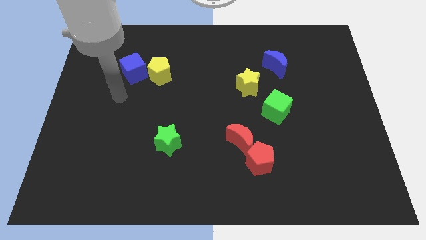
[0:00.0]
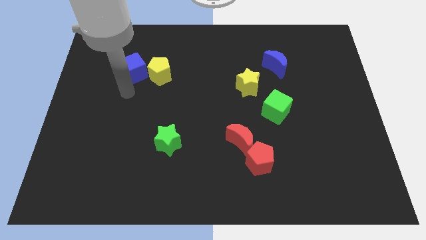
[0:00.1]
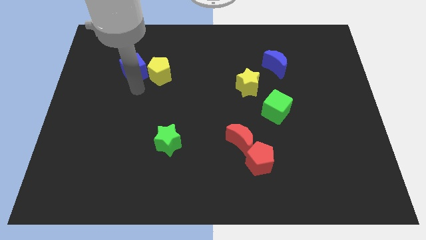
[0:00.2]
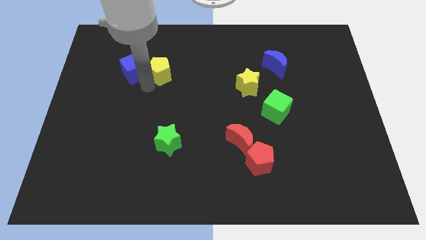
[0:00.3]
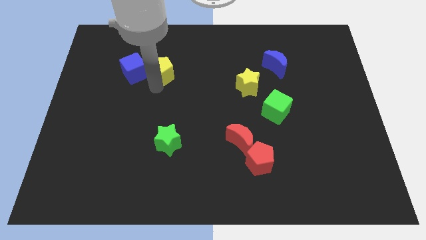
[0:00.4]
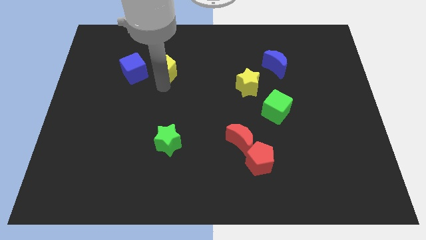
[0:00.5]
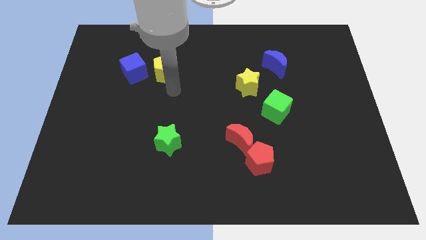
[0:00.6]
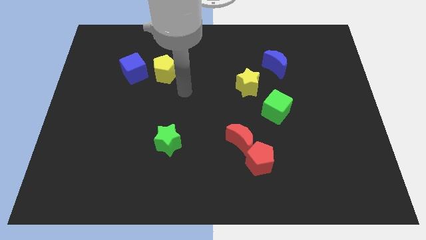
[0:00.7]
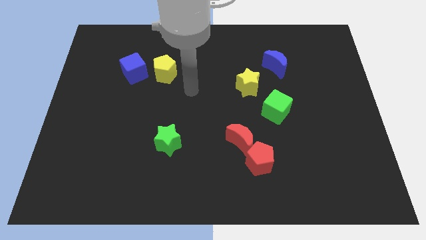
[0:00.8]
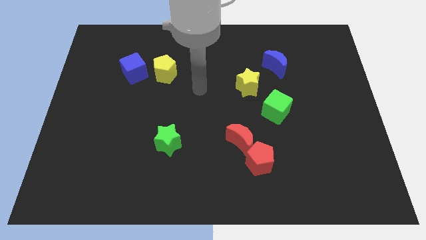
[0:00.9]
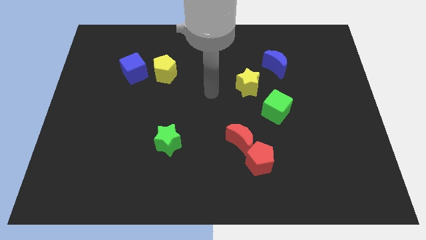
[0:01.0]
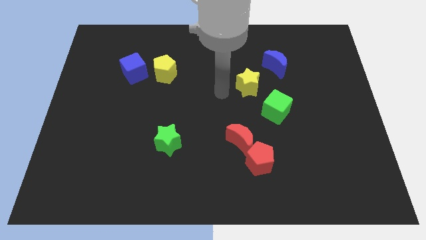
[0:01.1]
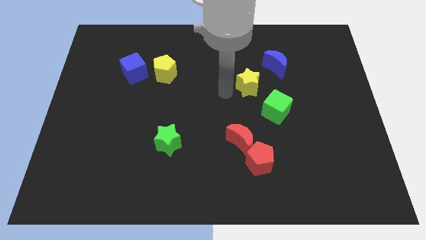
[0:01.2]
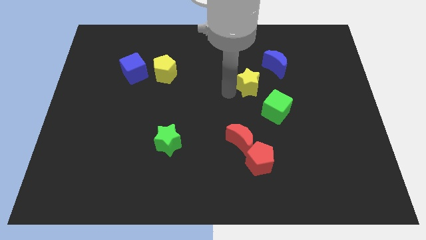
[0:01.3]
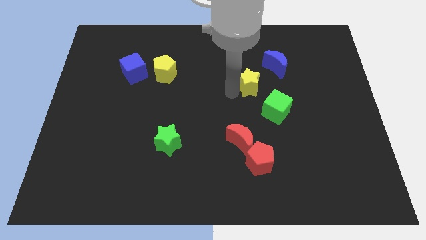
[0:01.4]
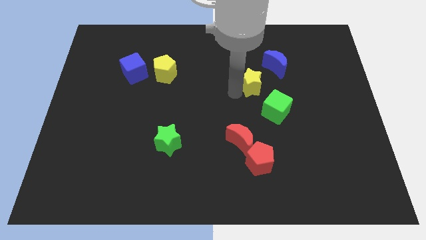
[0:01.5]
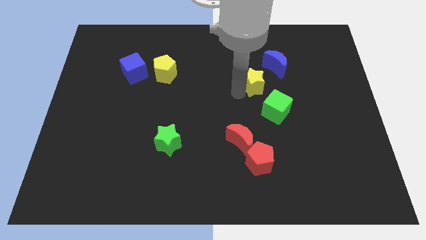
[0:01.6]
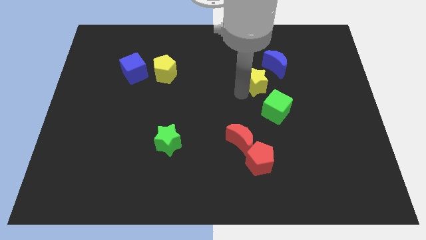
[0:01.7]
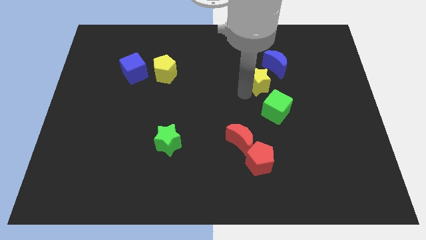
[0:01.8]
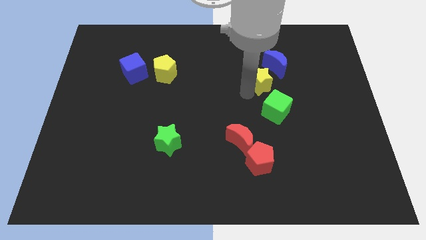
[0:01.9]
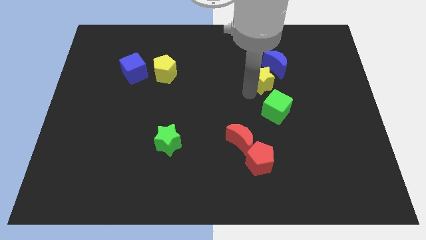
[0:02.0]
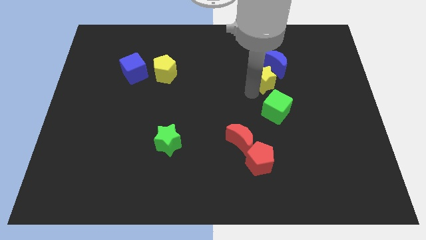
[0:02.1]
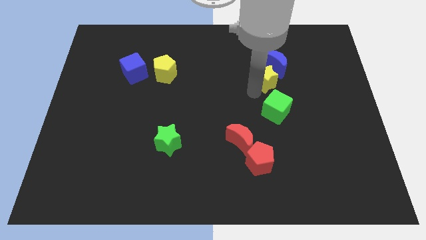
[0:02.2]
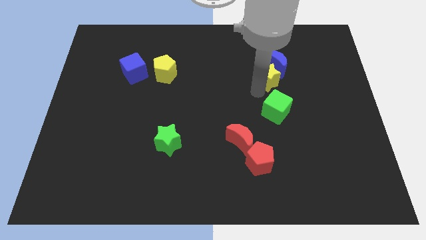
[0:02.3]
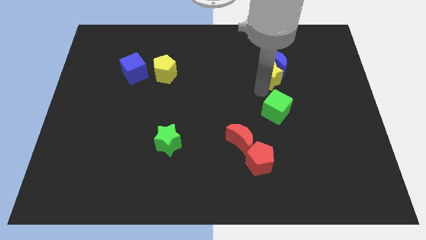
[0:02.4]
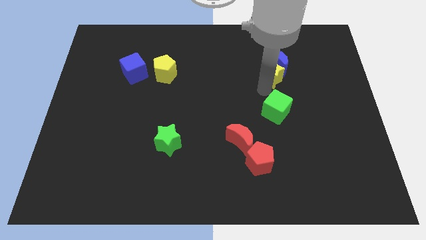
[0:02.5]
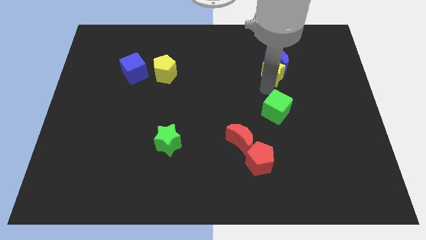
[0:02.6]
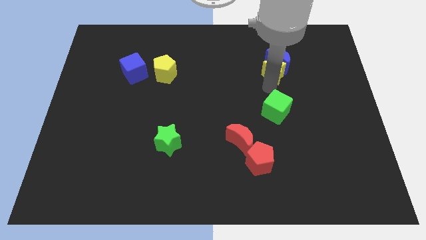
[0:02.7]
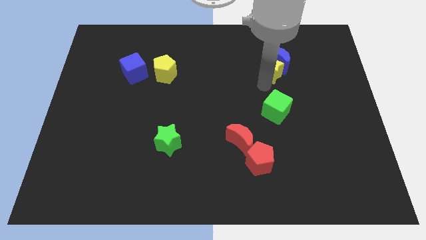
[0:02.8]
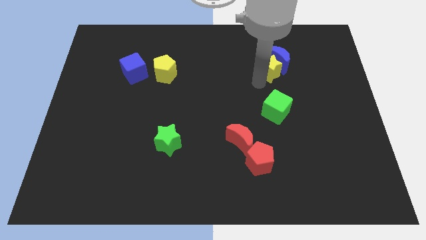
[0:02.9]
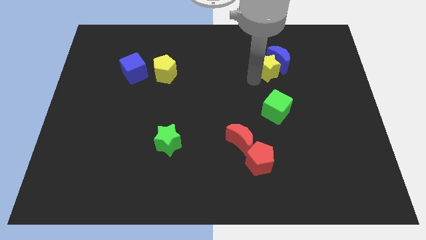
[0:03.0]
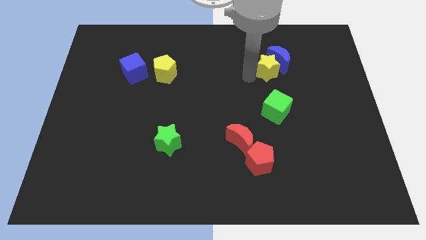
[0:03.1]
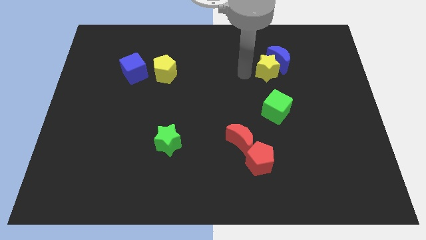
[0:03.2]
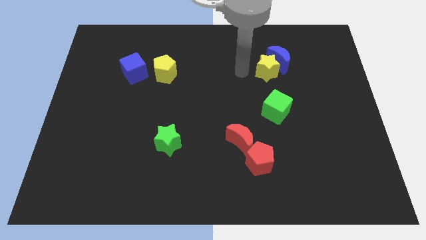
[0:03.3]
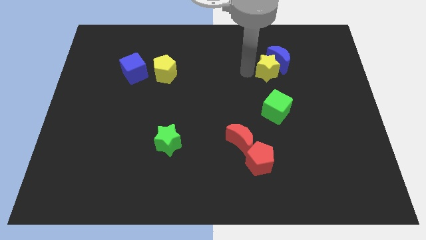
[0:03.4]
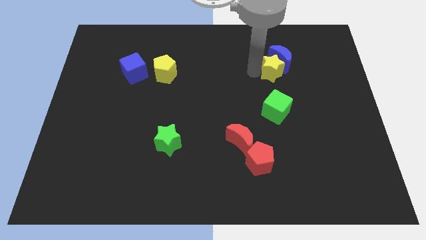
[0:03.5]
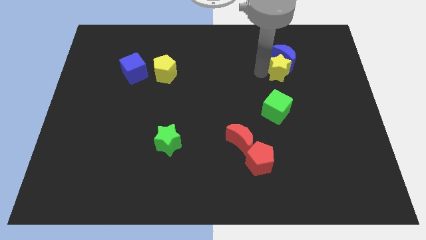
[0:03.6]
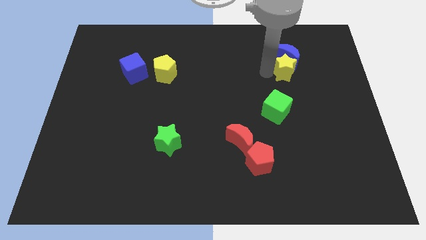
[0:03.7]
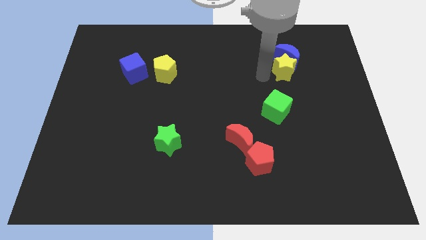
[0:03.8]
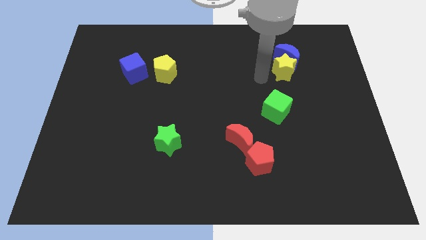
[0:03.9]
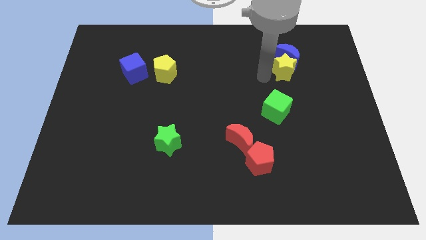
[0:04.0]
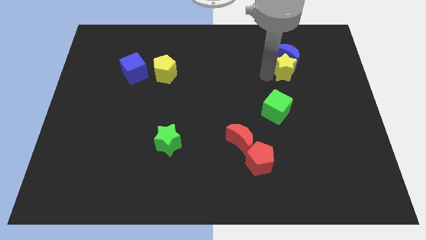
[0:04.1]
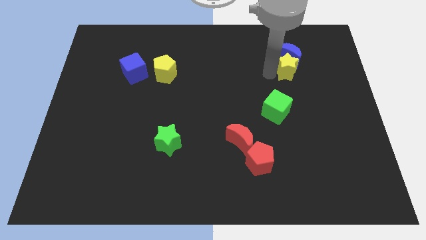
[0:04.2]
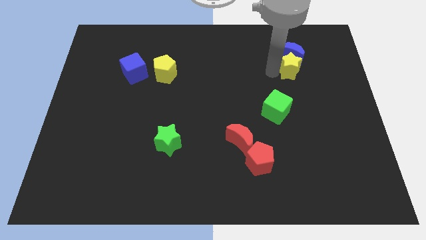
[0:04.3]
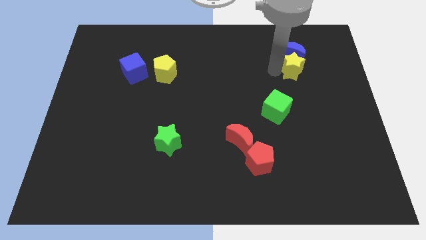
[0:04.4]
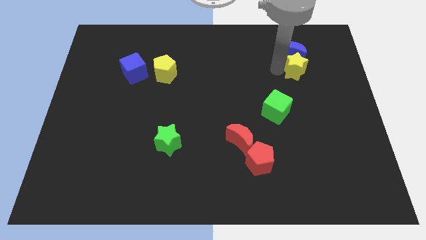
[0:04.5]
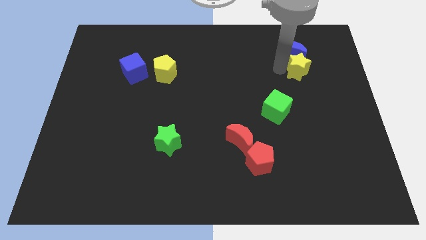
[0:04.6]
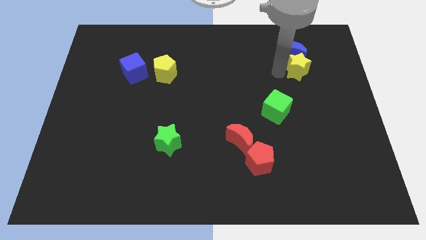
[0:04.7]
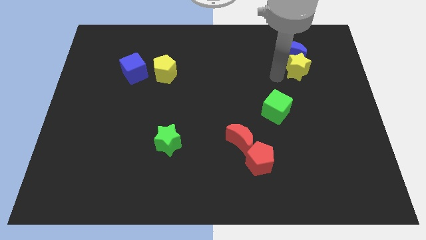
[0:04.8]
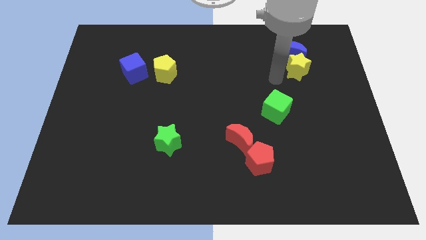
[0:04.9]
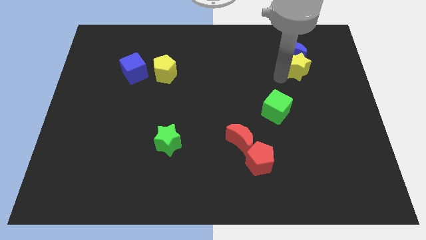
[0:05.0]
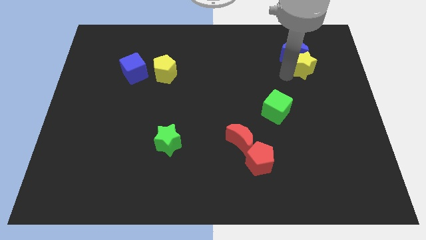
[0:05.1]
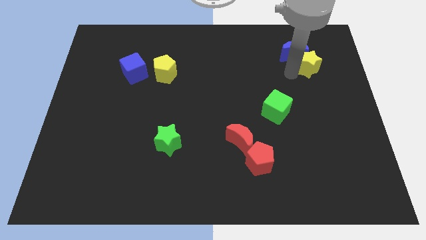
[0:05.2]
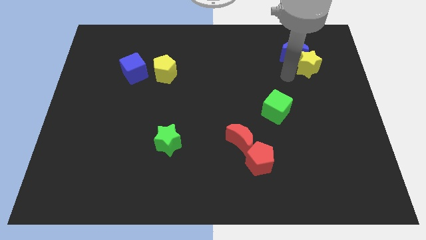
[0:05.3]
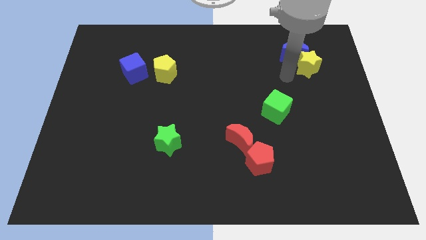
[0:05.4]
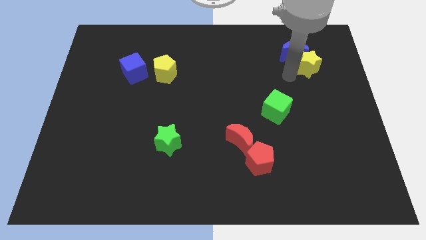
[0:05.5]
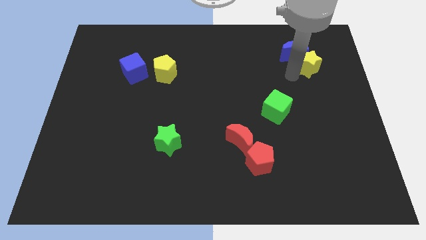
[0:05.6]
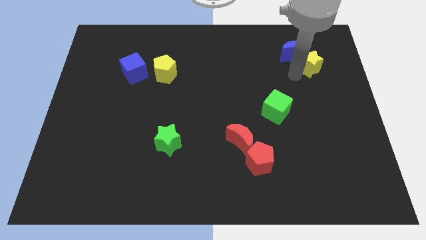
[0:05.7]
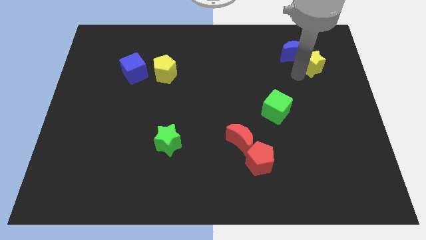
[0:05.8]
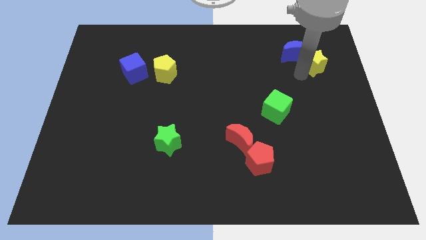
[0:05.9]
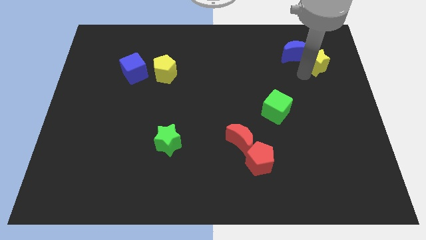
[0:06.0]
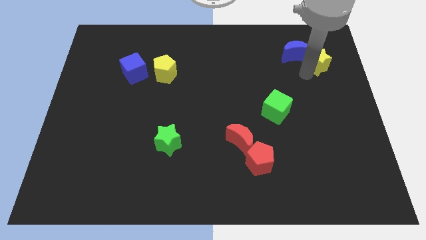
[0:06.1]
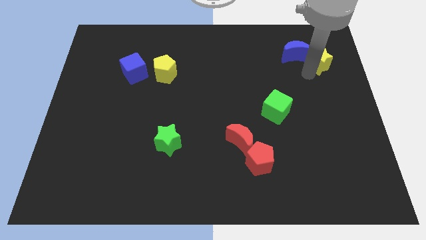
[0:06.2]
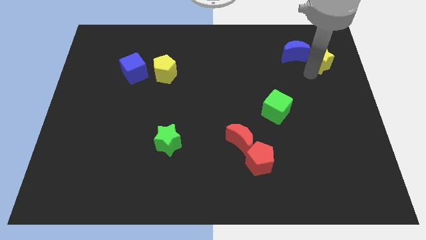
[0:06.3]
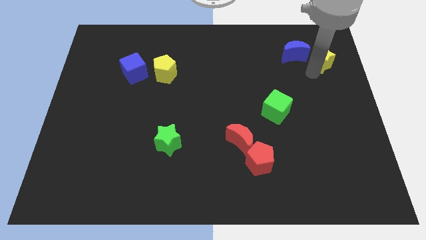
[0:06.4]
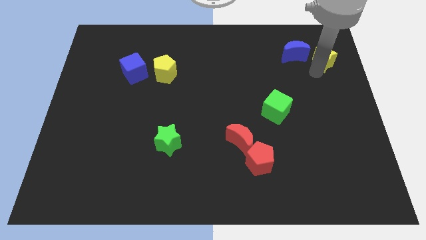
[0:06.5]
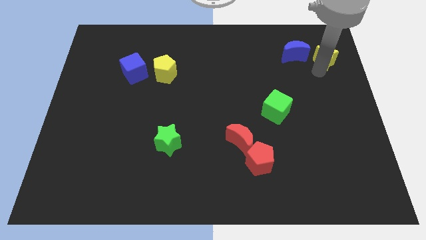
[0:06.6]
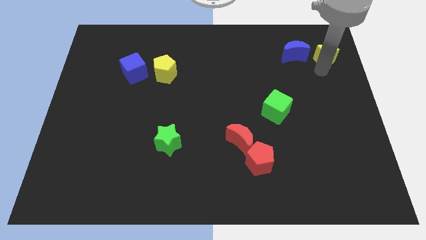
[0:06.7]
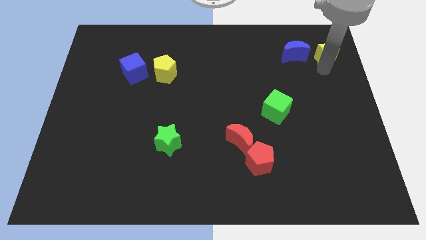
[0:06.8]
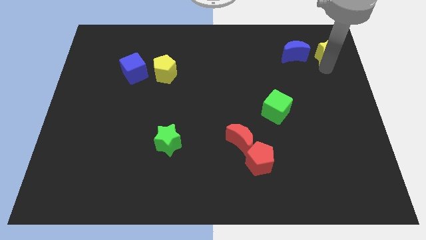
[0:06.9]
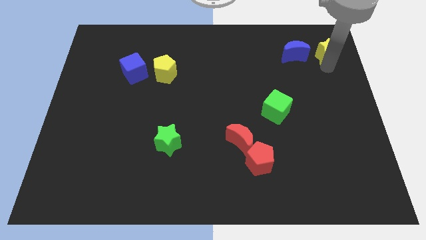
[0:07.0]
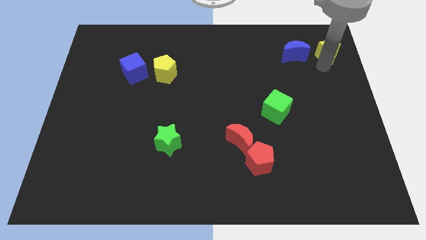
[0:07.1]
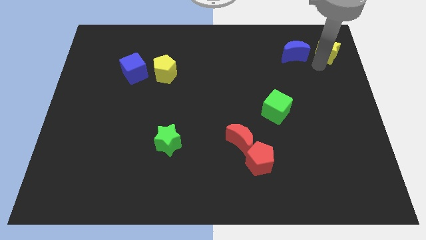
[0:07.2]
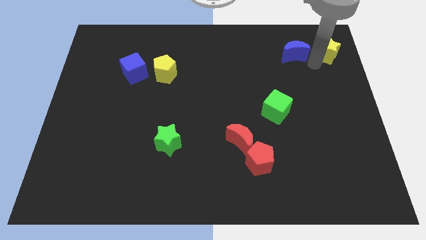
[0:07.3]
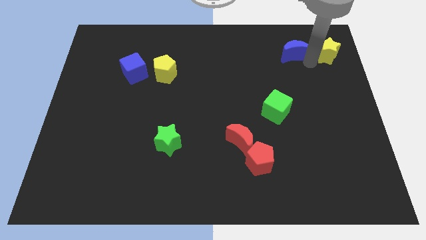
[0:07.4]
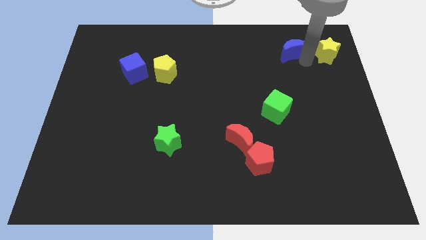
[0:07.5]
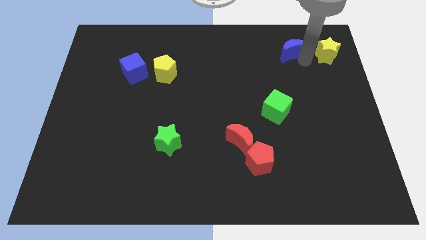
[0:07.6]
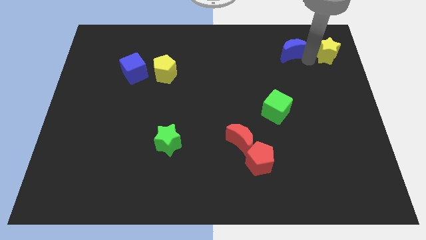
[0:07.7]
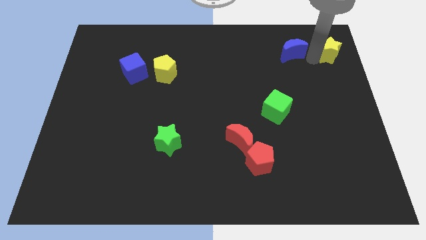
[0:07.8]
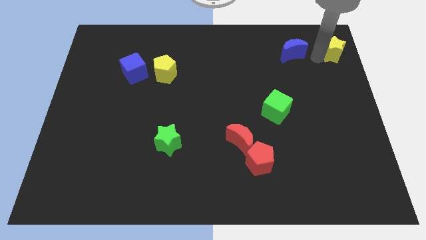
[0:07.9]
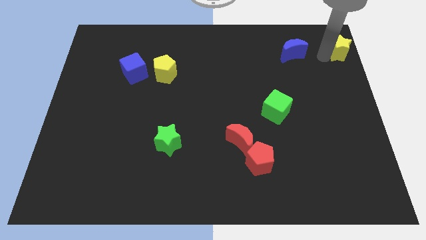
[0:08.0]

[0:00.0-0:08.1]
slide the yellow star to the top right corner
